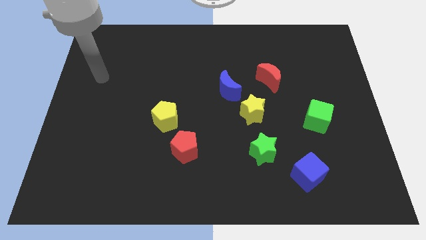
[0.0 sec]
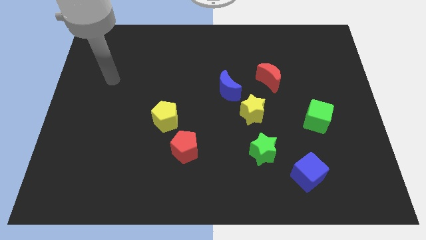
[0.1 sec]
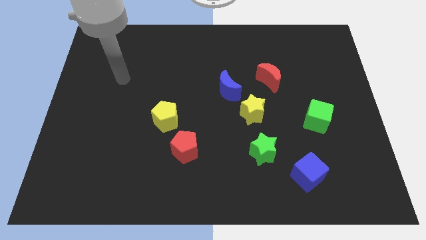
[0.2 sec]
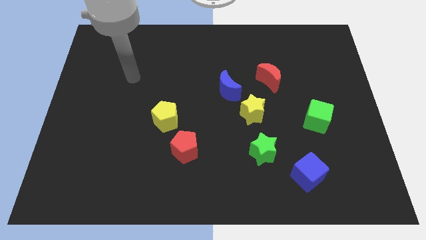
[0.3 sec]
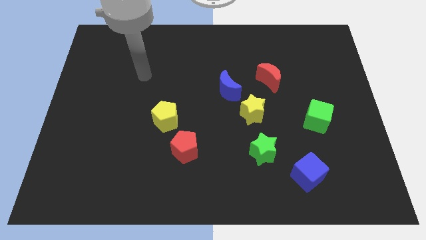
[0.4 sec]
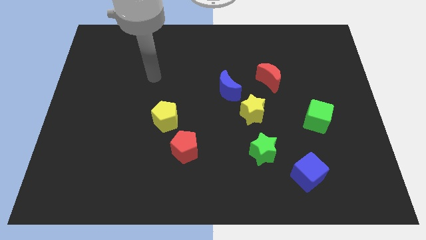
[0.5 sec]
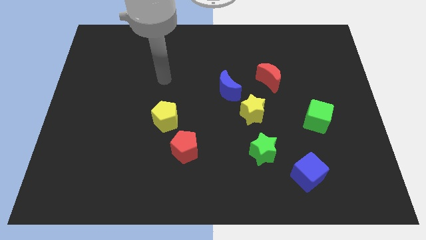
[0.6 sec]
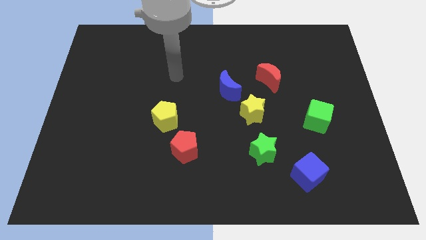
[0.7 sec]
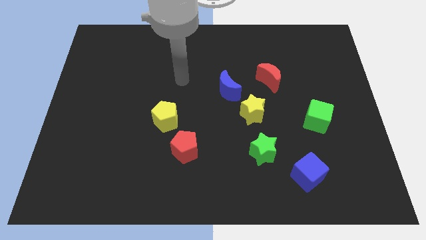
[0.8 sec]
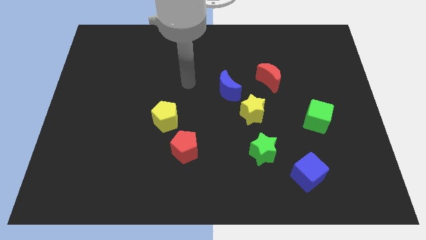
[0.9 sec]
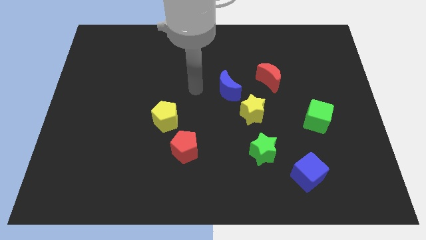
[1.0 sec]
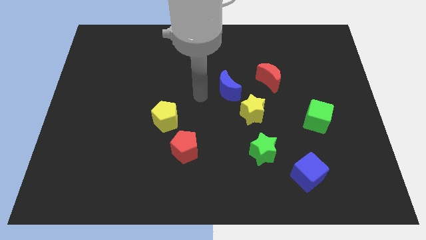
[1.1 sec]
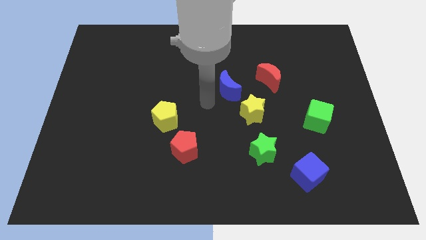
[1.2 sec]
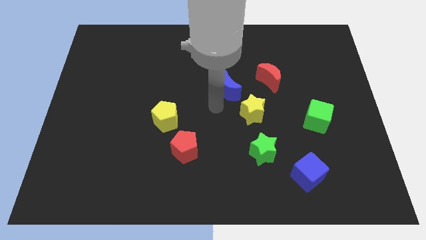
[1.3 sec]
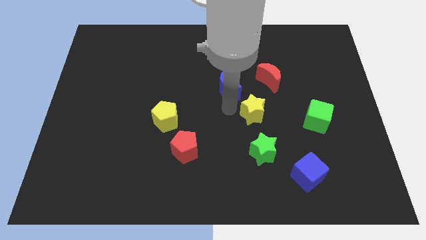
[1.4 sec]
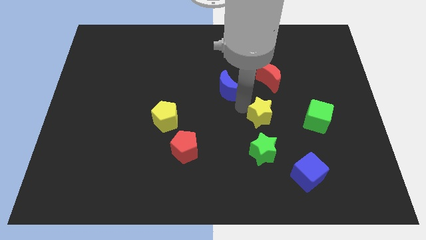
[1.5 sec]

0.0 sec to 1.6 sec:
pull the blue moon apart from the yellow star

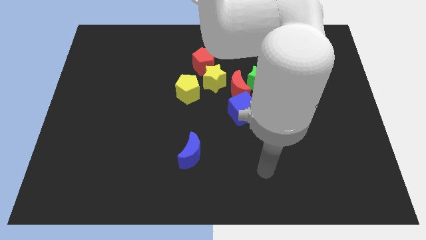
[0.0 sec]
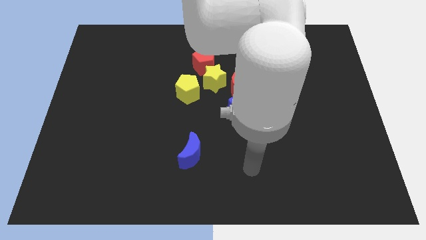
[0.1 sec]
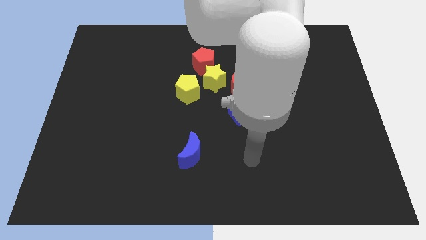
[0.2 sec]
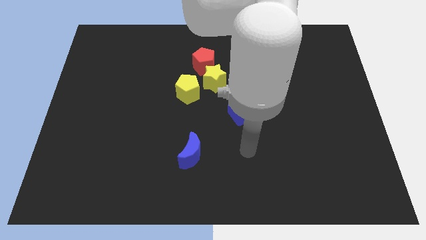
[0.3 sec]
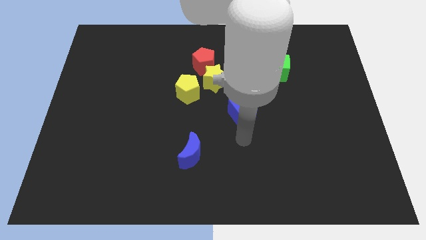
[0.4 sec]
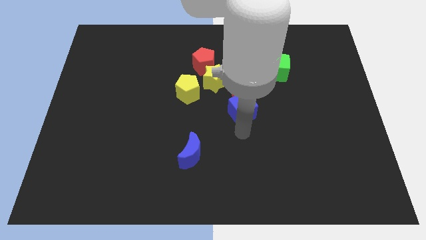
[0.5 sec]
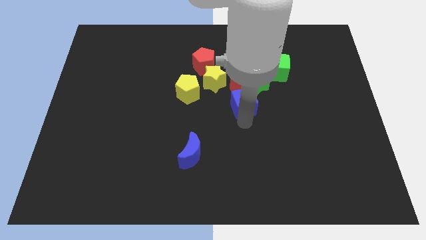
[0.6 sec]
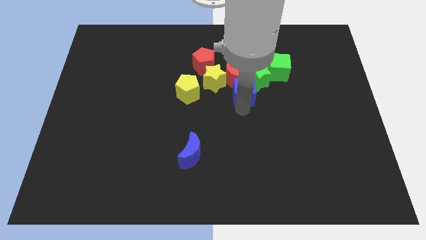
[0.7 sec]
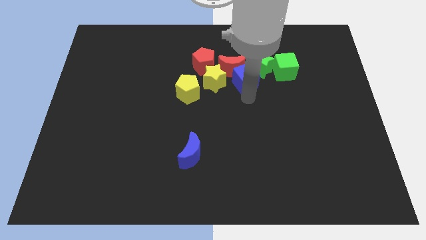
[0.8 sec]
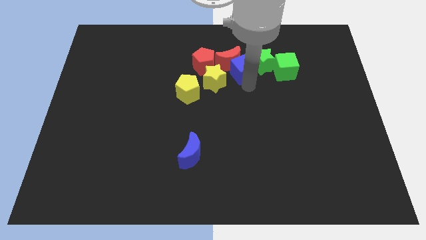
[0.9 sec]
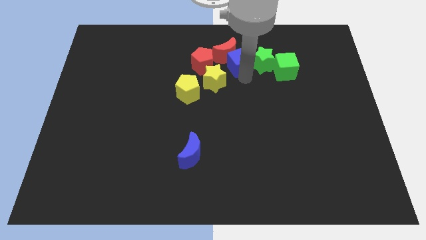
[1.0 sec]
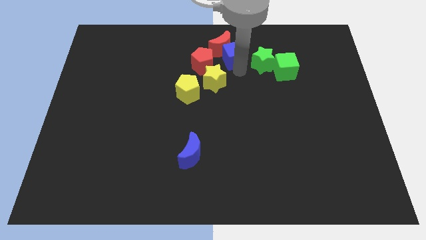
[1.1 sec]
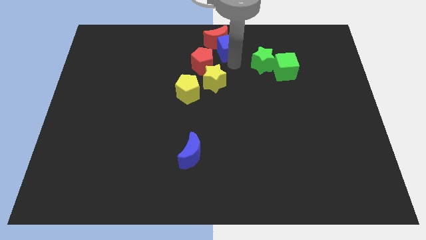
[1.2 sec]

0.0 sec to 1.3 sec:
move the red moon away from the green star, yellow star, and blue cube

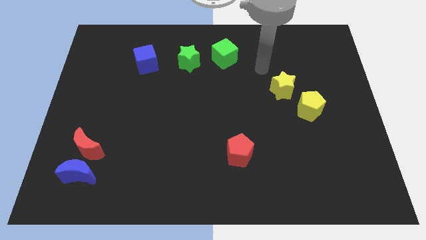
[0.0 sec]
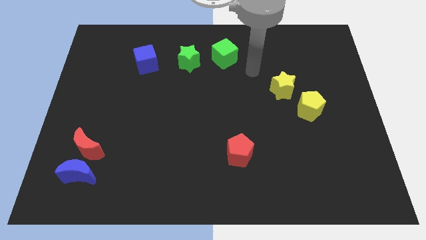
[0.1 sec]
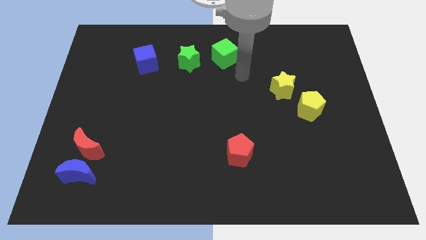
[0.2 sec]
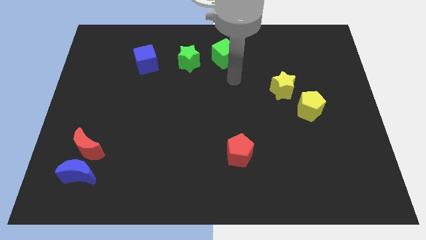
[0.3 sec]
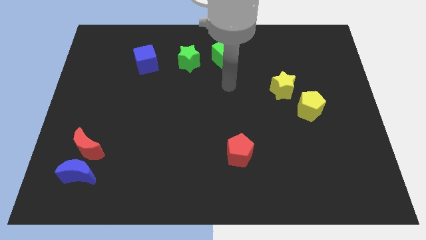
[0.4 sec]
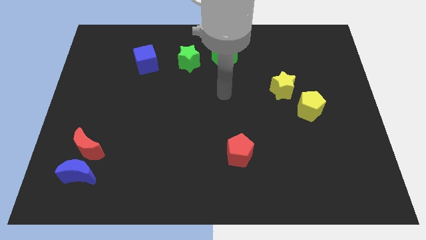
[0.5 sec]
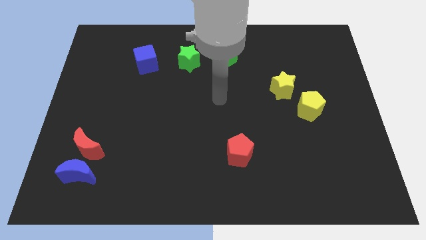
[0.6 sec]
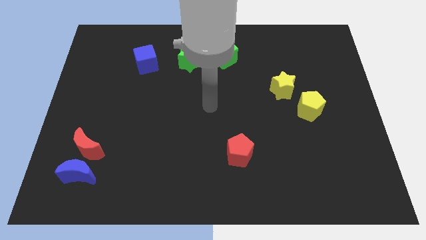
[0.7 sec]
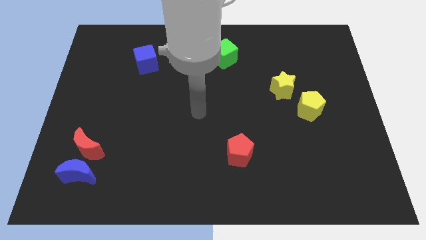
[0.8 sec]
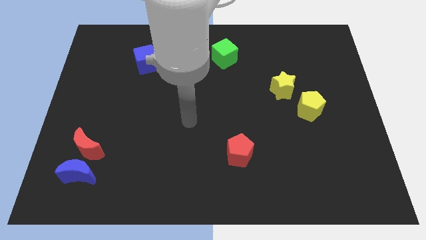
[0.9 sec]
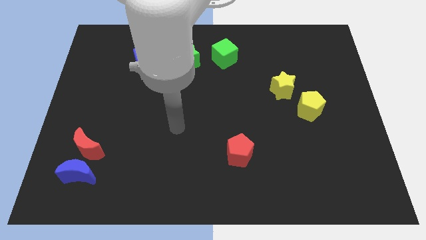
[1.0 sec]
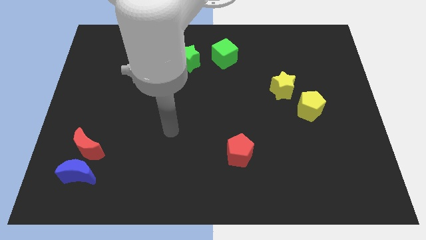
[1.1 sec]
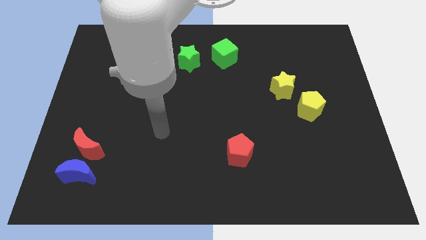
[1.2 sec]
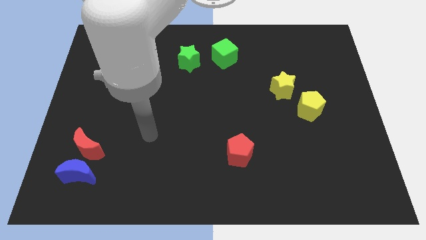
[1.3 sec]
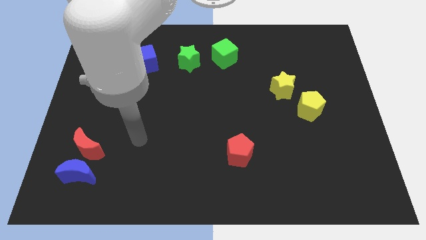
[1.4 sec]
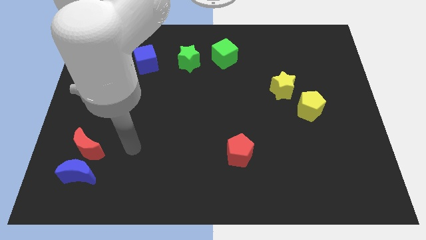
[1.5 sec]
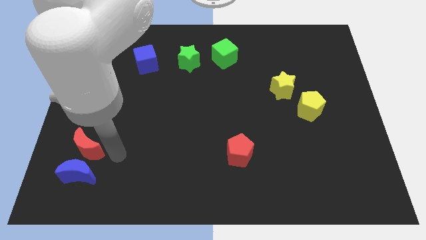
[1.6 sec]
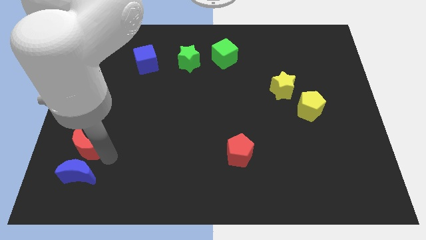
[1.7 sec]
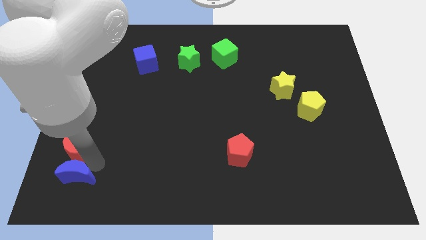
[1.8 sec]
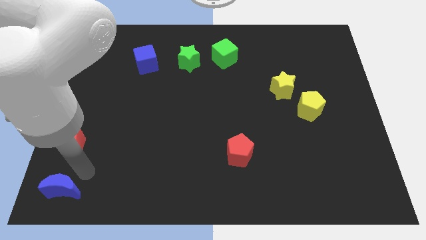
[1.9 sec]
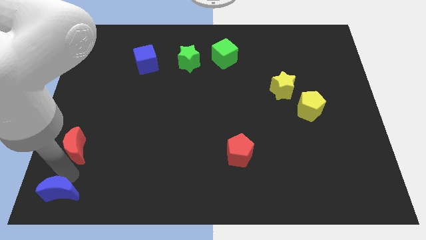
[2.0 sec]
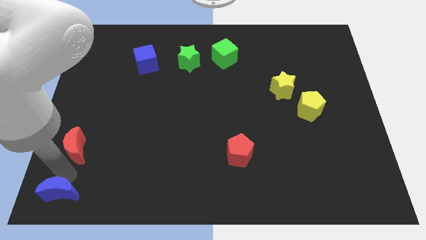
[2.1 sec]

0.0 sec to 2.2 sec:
separate the red moon from the blue moon

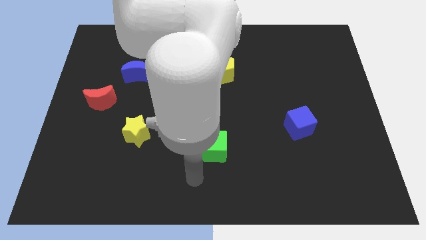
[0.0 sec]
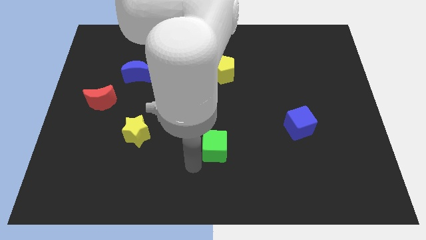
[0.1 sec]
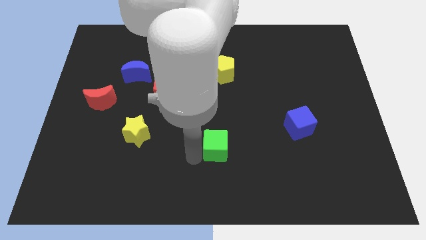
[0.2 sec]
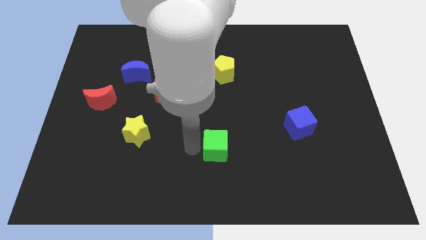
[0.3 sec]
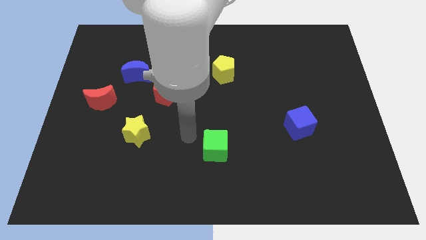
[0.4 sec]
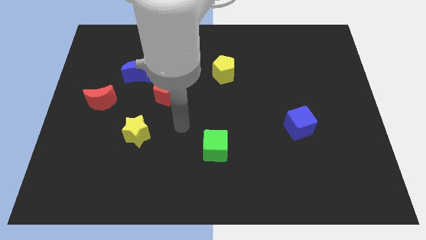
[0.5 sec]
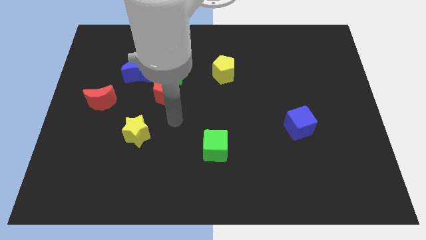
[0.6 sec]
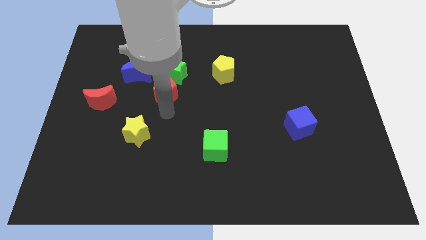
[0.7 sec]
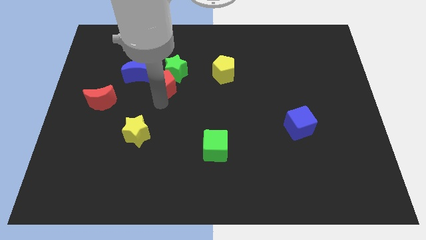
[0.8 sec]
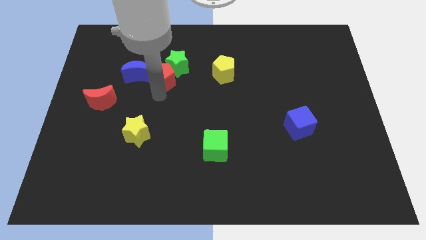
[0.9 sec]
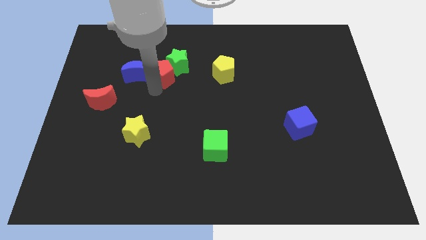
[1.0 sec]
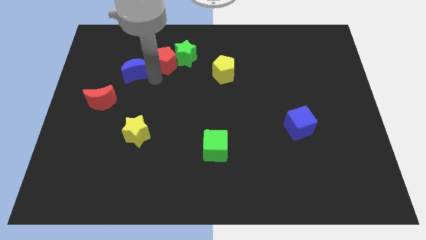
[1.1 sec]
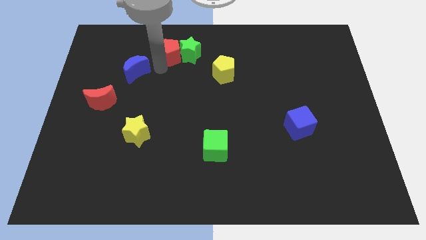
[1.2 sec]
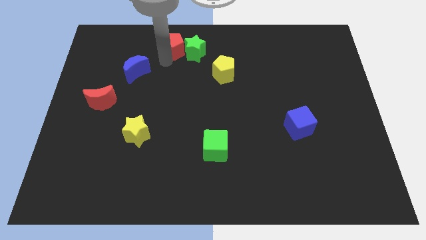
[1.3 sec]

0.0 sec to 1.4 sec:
pull the green star apart from the red pentagon and blue moon

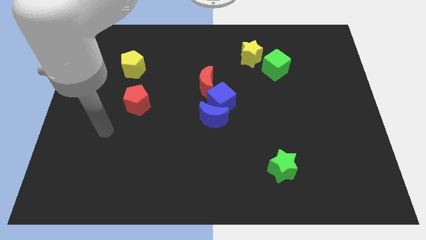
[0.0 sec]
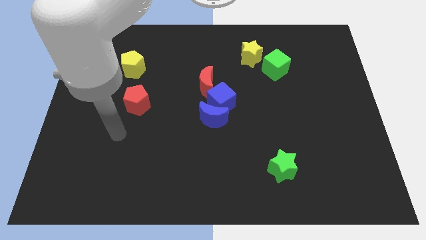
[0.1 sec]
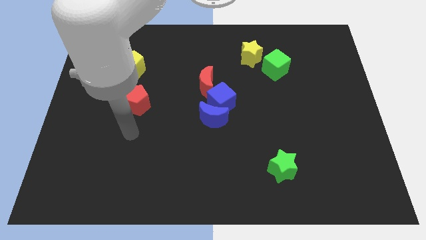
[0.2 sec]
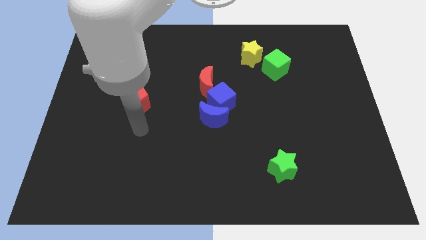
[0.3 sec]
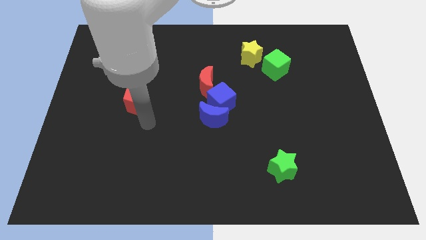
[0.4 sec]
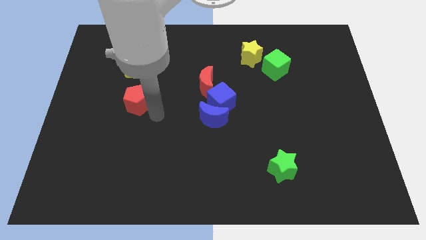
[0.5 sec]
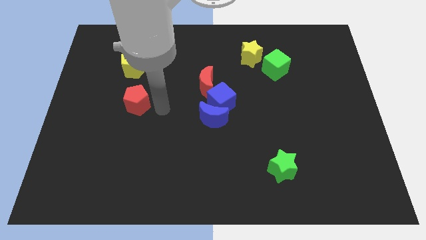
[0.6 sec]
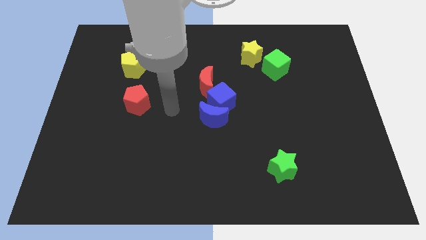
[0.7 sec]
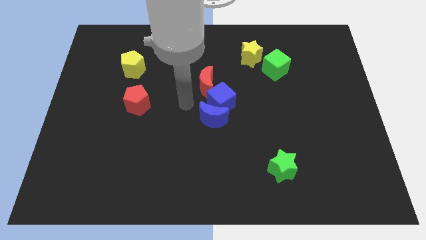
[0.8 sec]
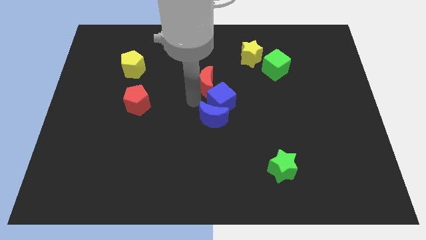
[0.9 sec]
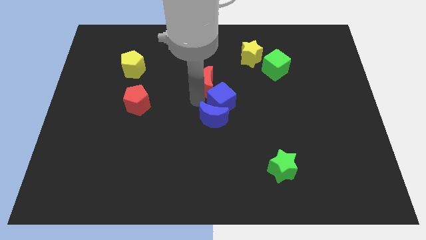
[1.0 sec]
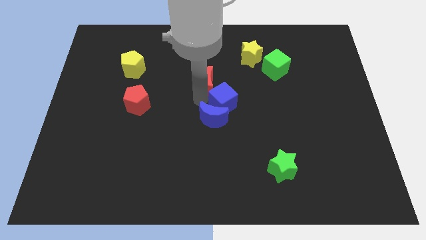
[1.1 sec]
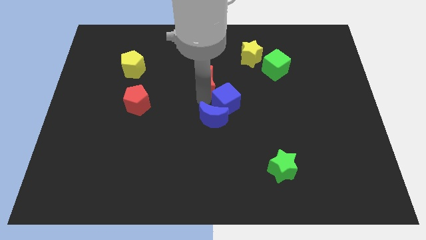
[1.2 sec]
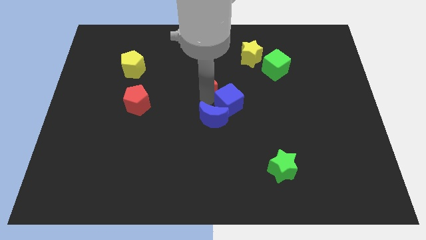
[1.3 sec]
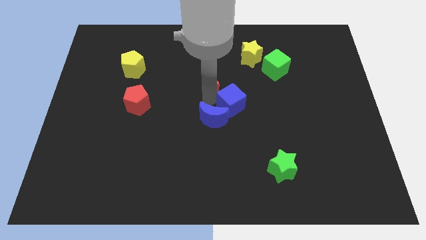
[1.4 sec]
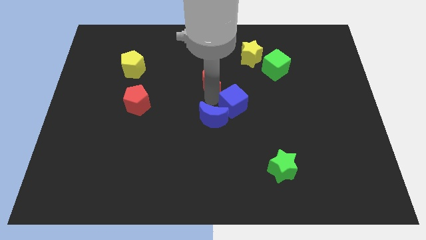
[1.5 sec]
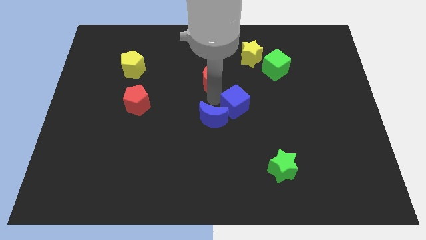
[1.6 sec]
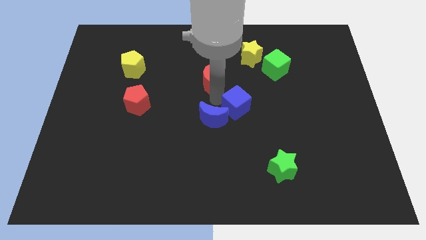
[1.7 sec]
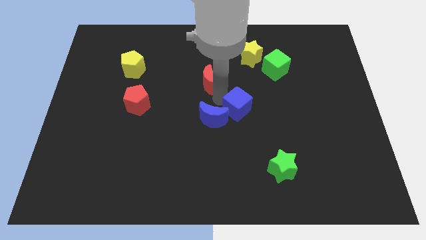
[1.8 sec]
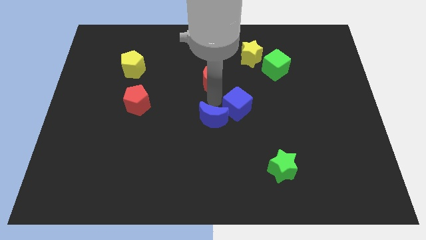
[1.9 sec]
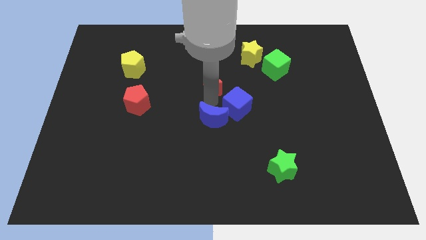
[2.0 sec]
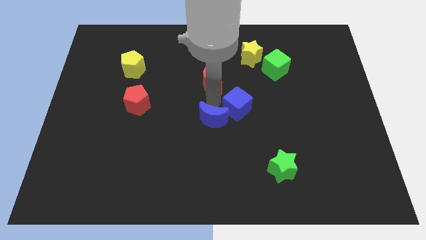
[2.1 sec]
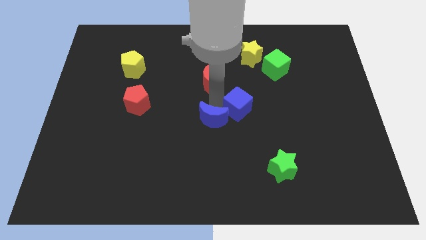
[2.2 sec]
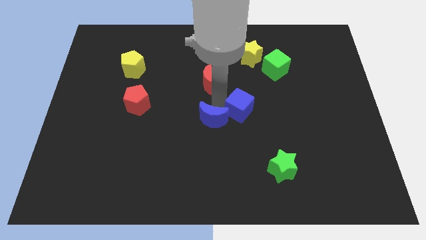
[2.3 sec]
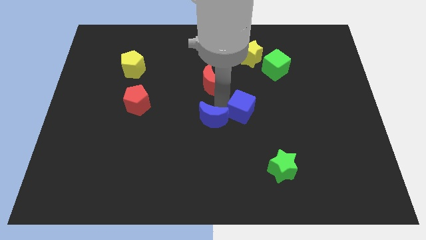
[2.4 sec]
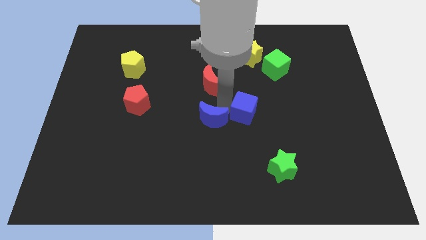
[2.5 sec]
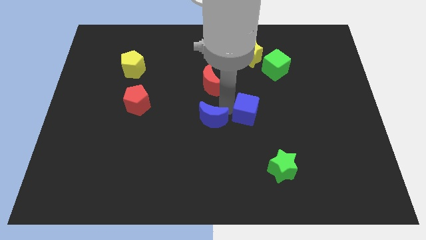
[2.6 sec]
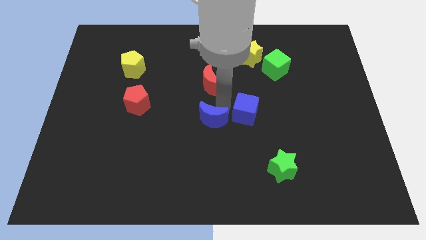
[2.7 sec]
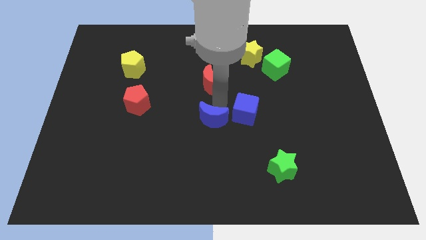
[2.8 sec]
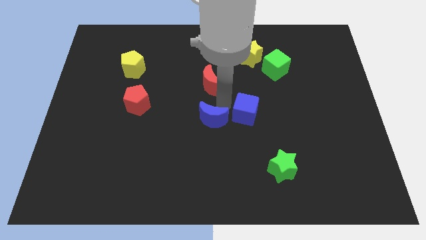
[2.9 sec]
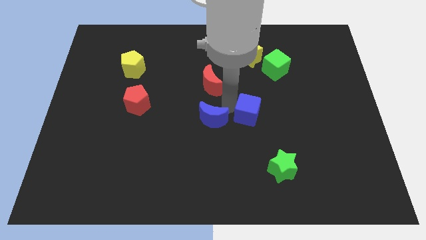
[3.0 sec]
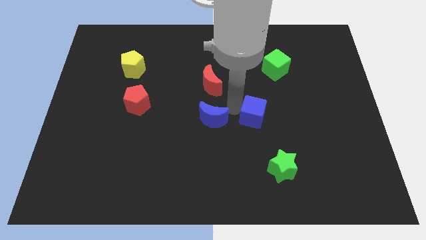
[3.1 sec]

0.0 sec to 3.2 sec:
pull the blue cube apart from the blue moon and red moon
